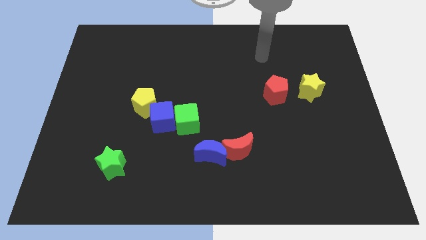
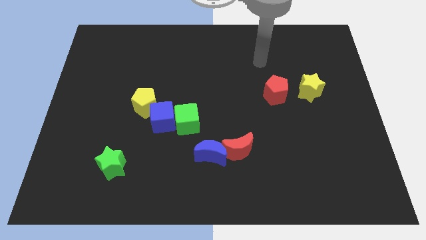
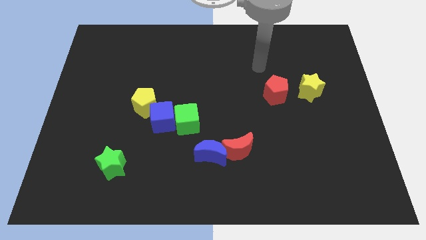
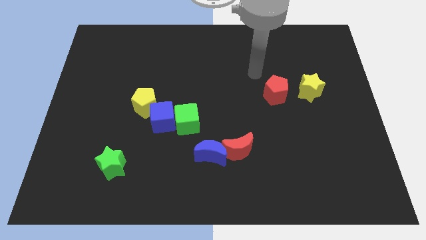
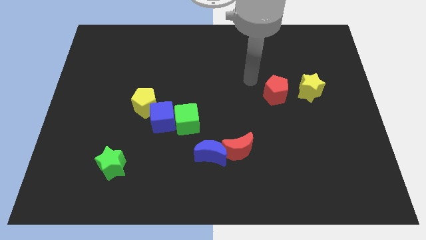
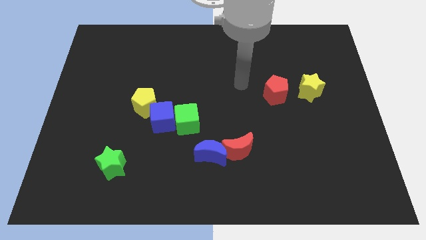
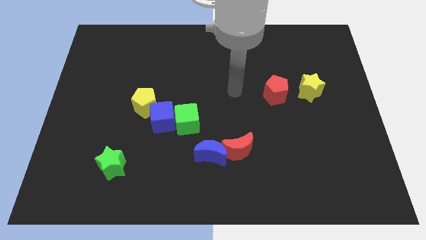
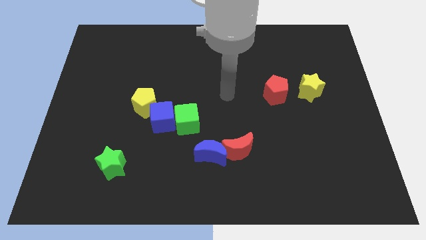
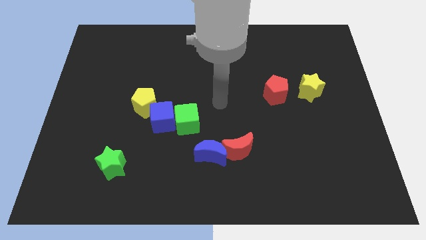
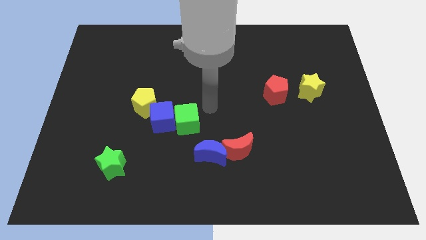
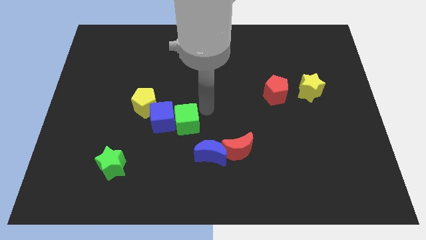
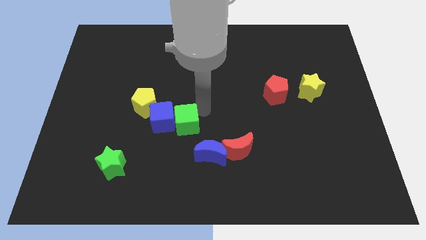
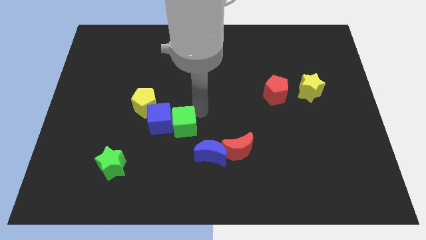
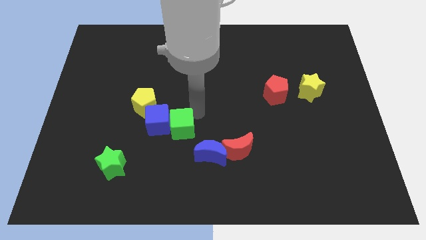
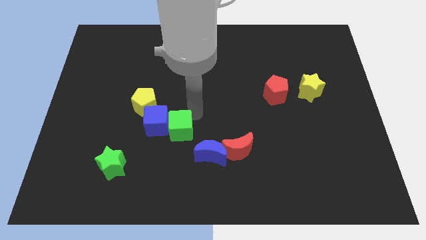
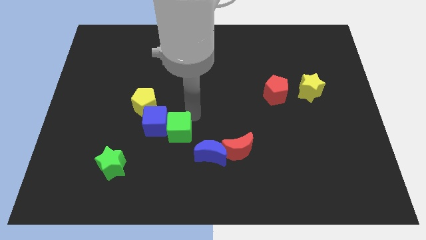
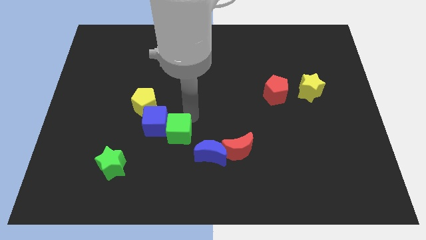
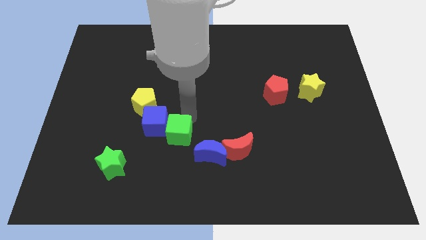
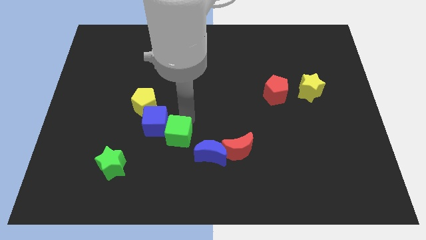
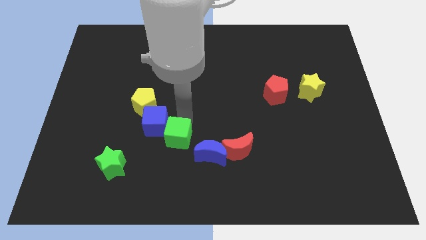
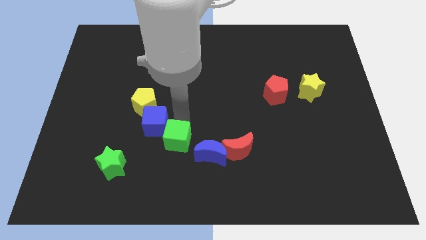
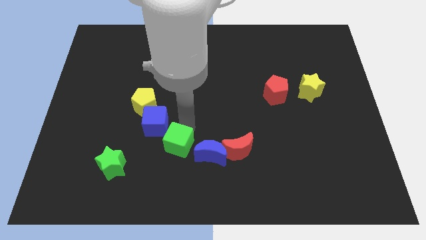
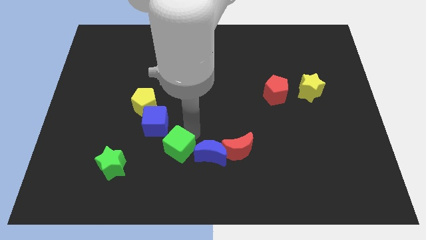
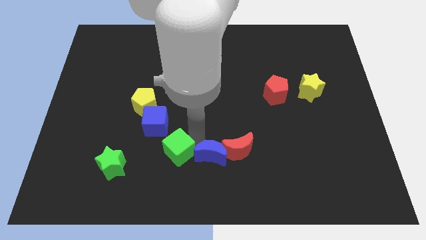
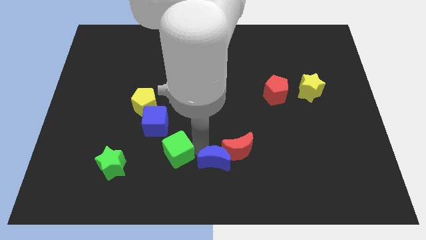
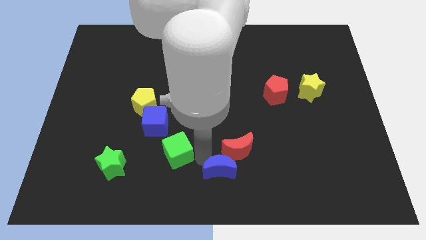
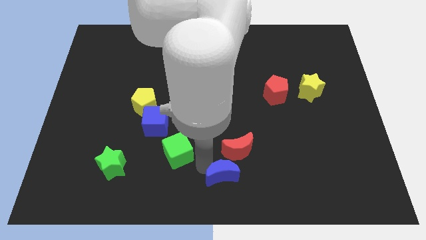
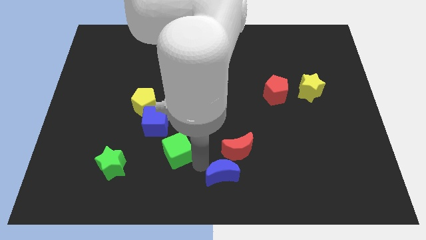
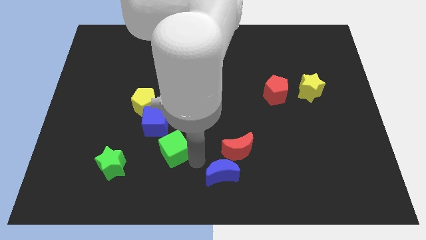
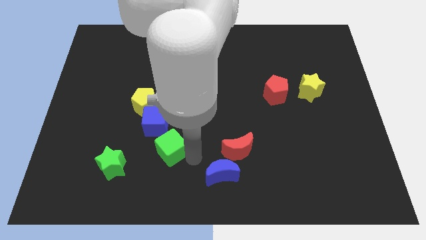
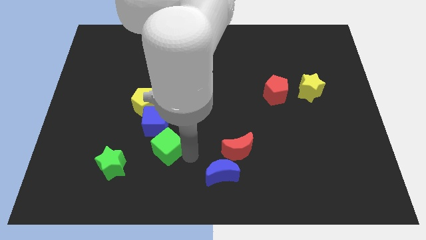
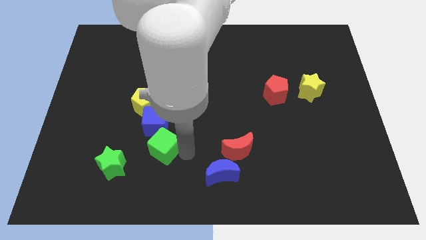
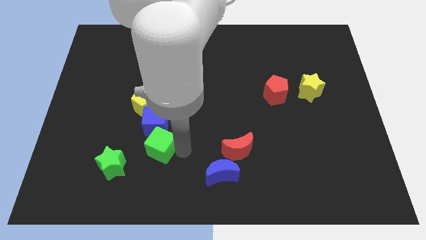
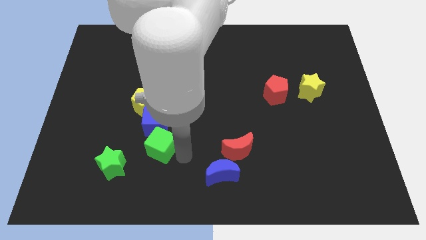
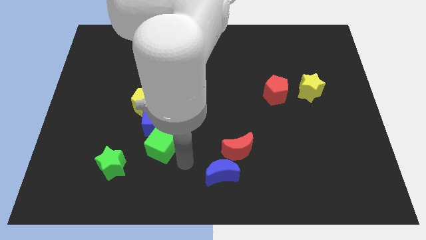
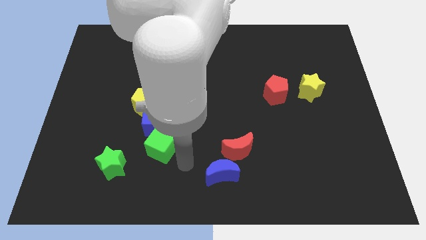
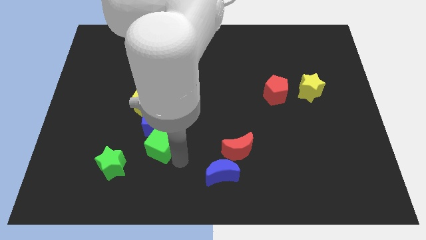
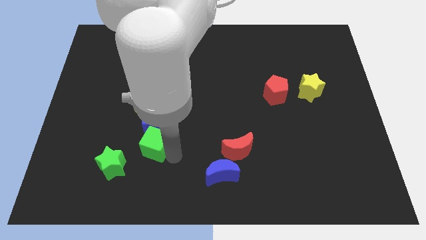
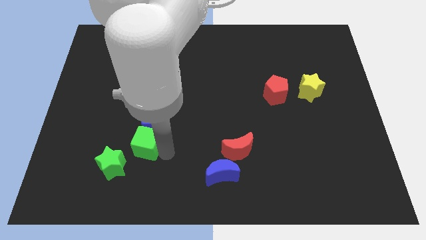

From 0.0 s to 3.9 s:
slightly slide the green cube to the left

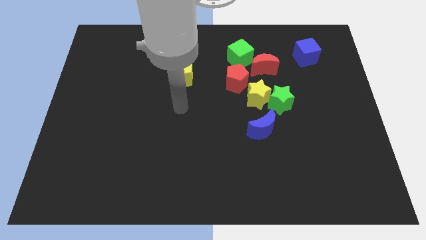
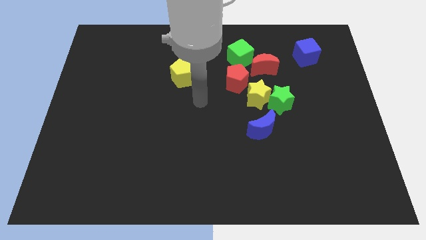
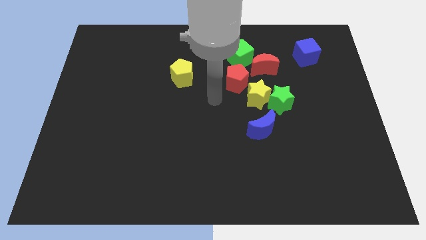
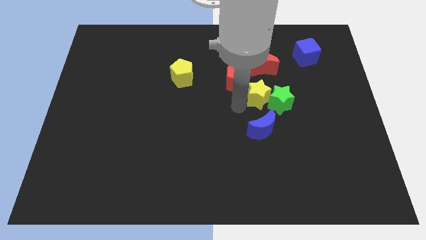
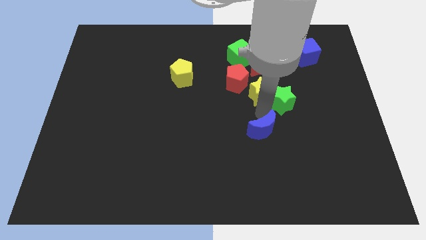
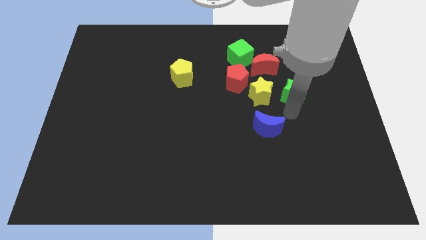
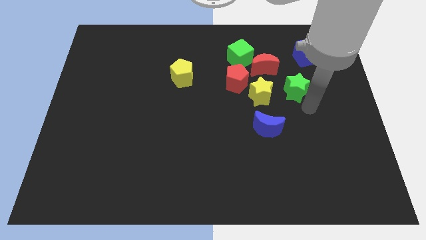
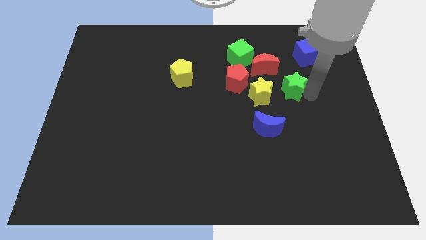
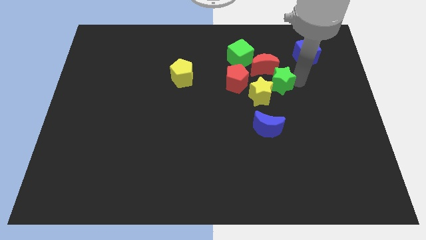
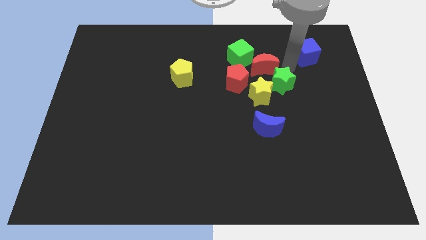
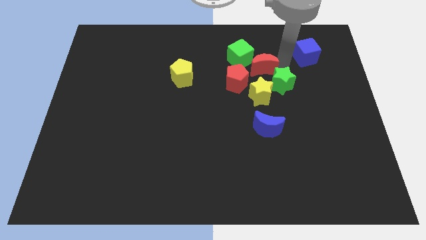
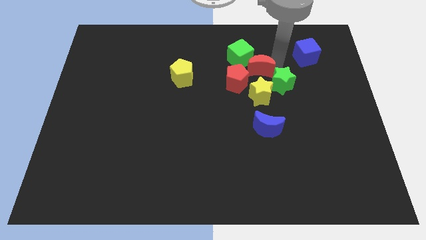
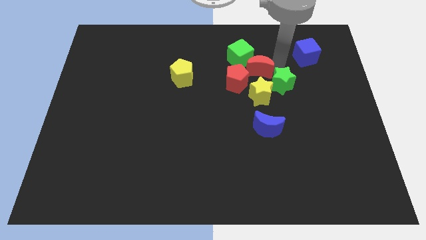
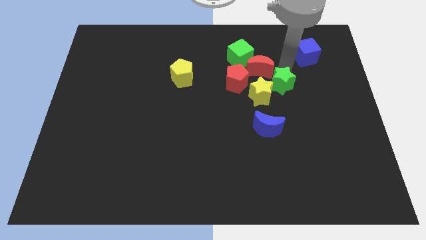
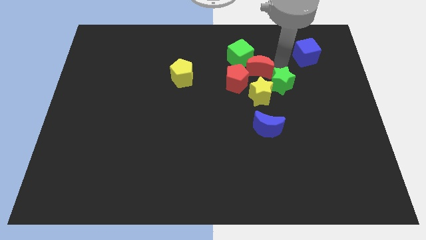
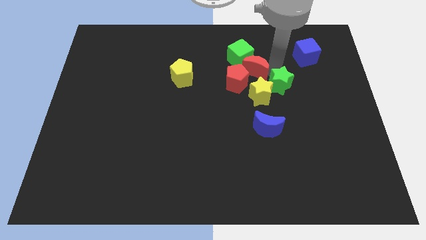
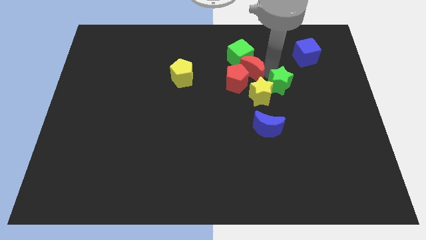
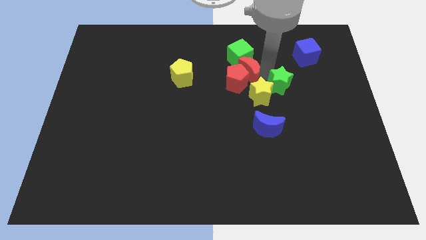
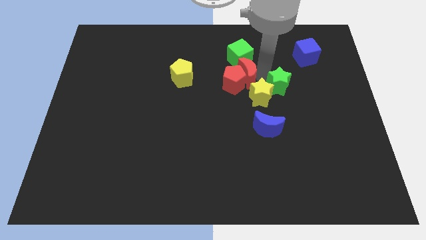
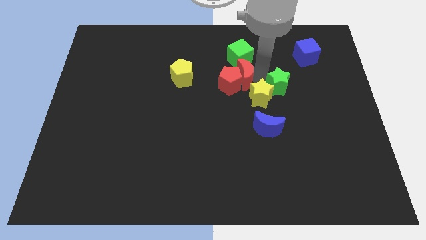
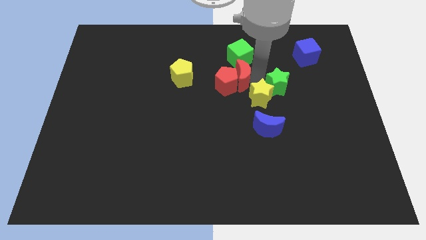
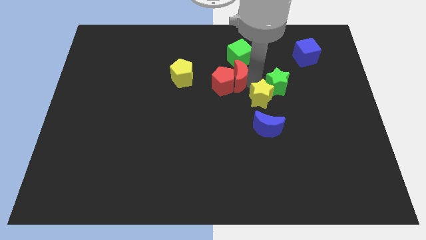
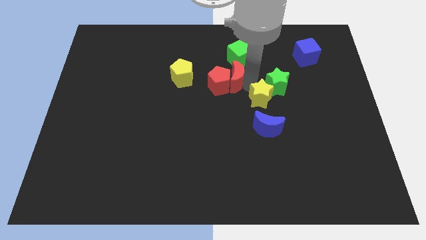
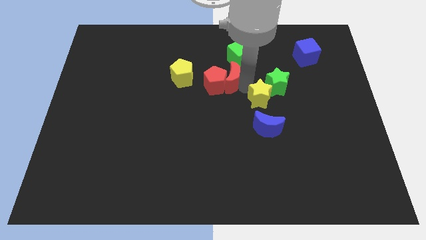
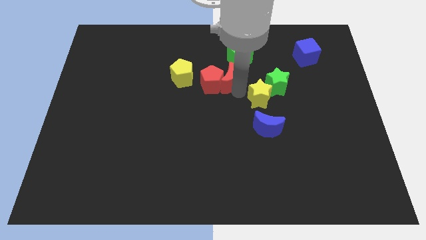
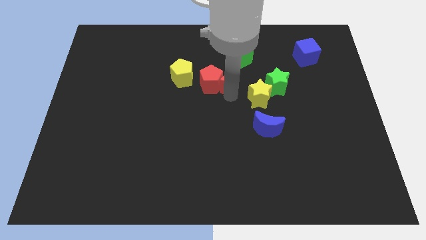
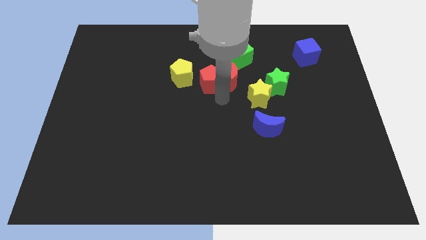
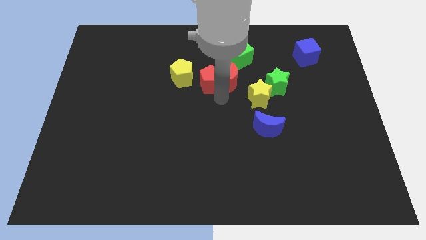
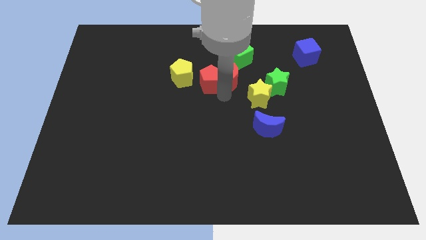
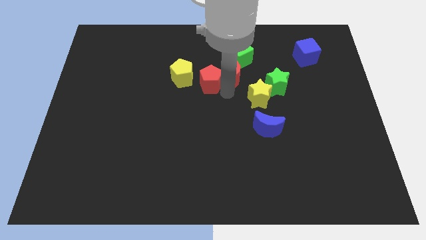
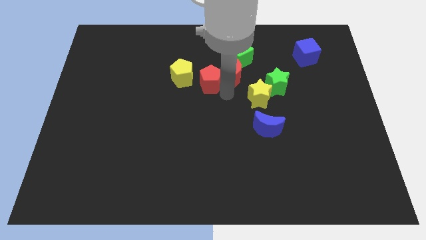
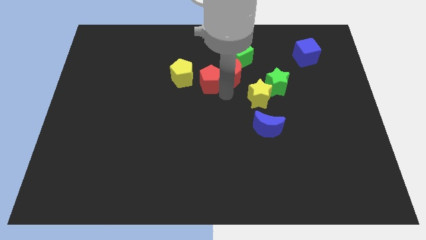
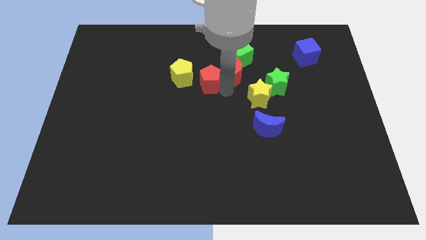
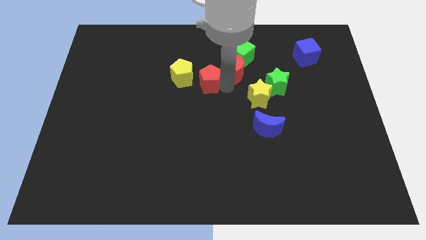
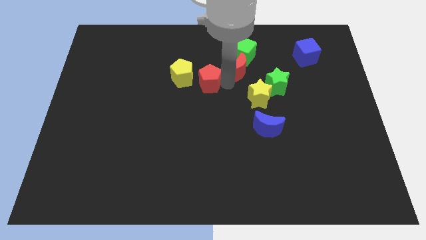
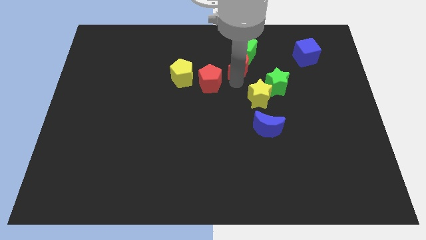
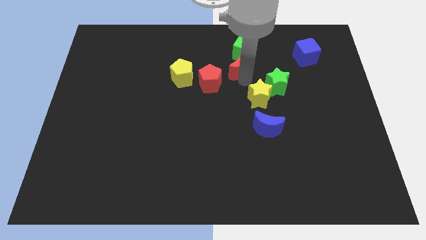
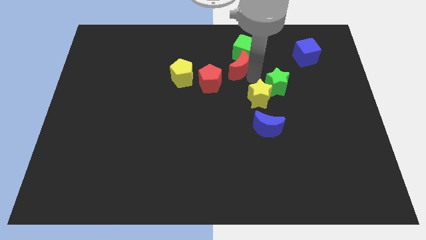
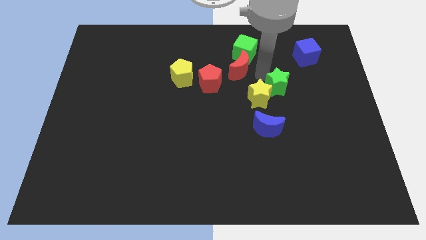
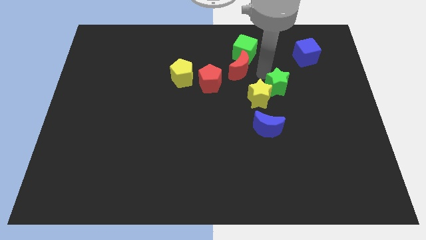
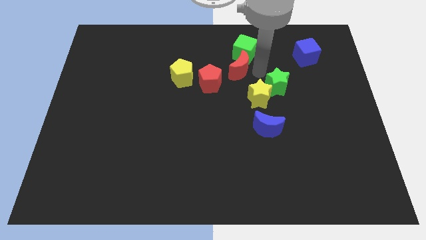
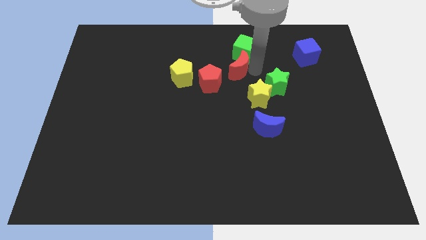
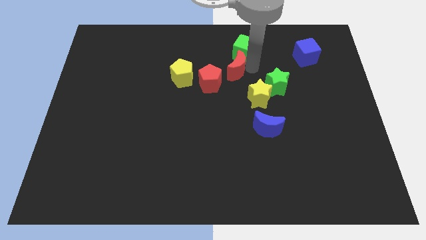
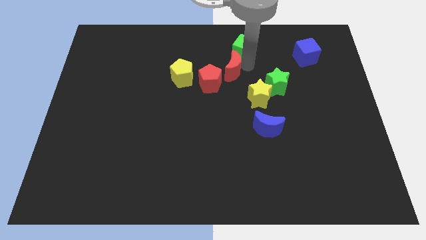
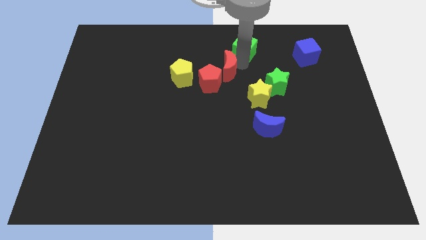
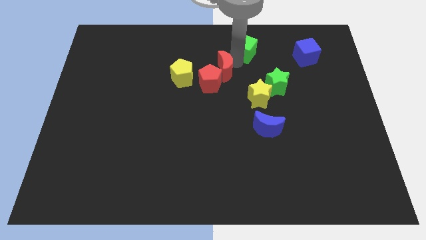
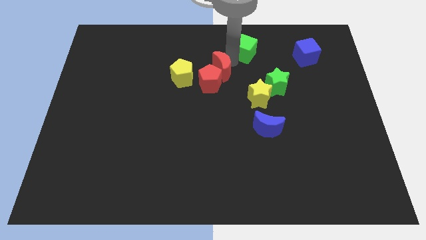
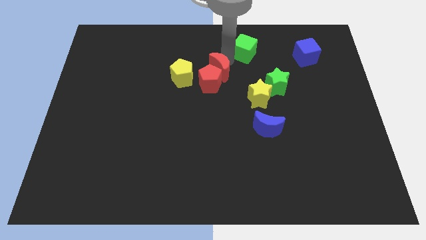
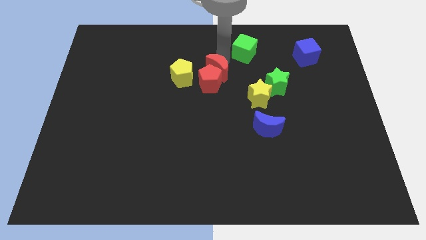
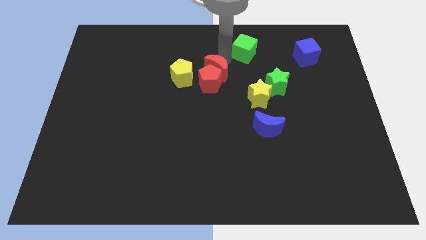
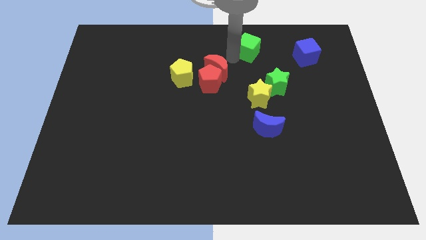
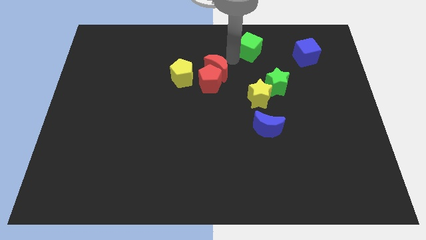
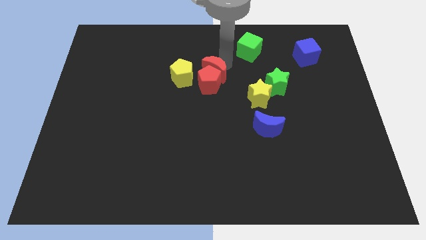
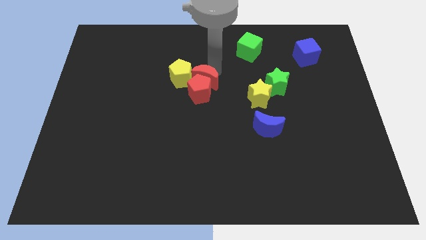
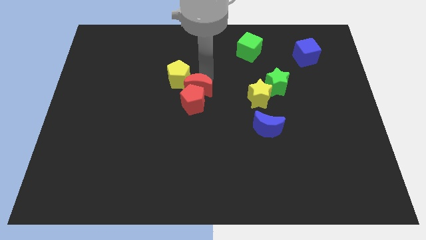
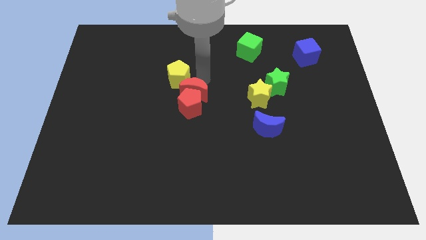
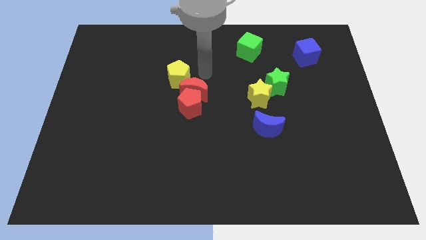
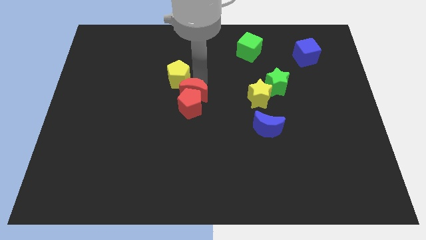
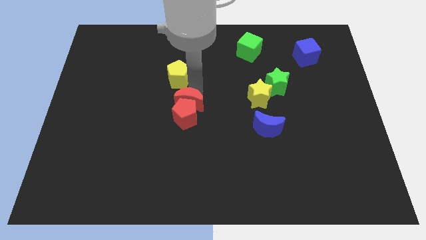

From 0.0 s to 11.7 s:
push the red moon diagonally down and left
